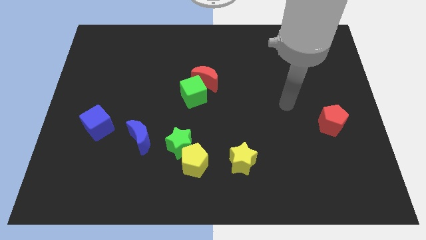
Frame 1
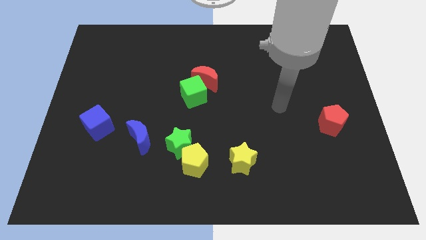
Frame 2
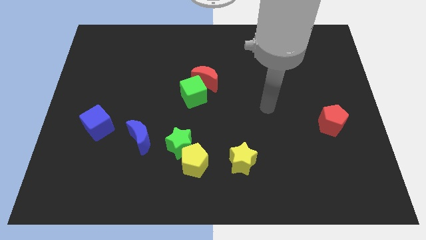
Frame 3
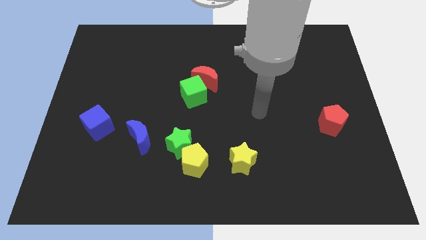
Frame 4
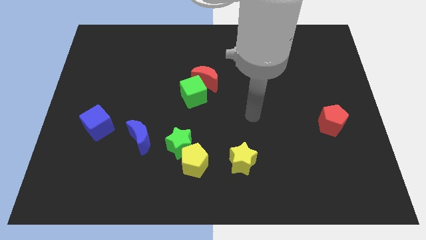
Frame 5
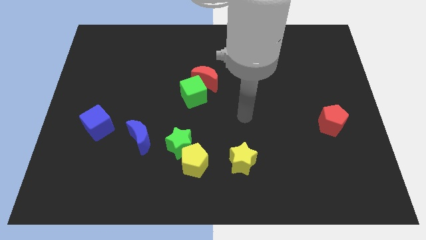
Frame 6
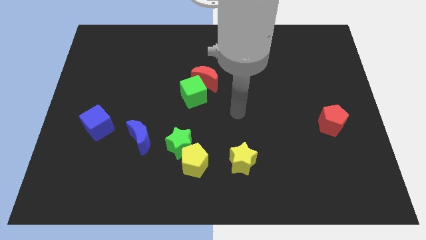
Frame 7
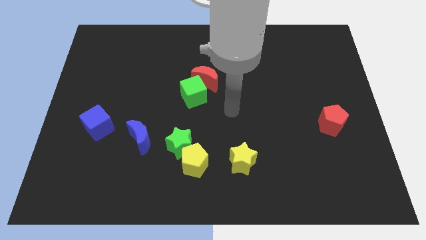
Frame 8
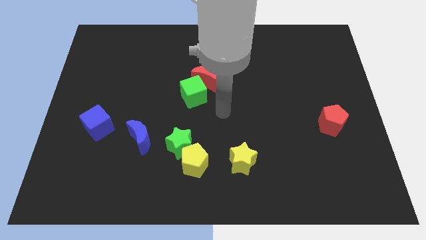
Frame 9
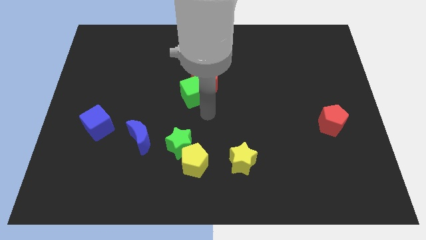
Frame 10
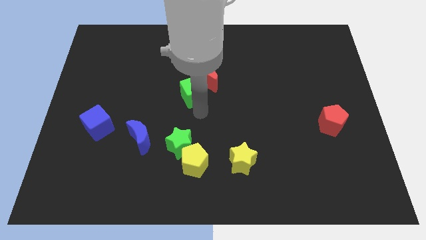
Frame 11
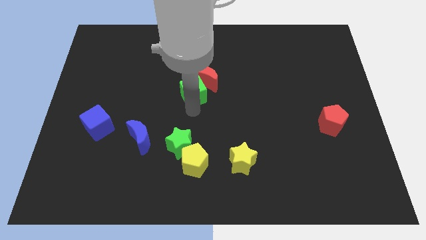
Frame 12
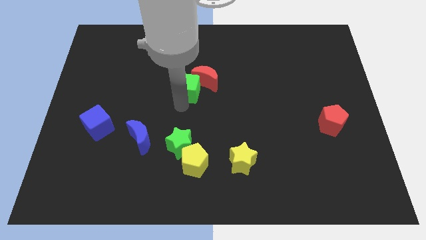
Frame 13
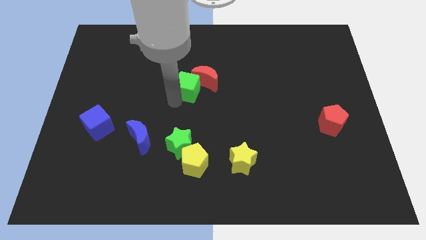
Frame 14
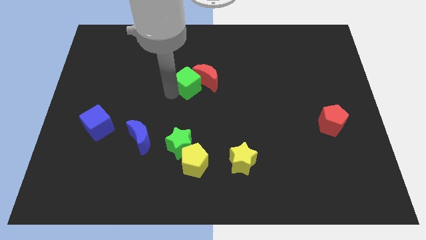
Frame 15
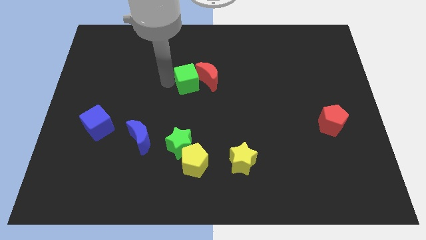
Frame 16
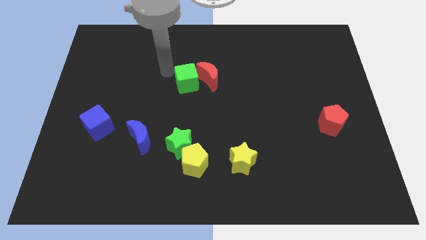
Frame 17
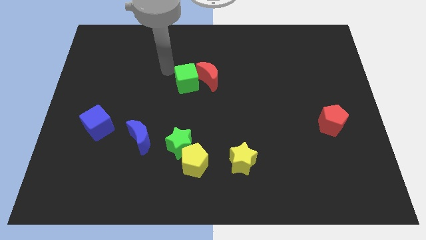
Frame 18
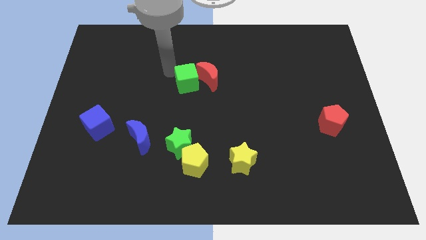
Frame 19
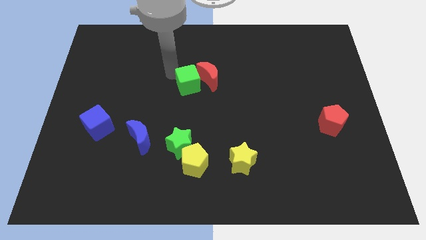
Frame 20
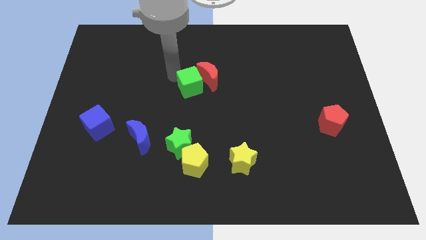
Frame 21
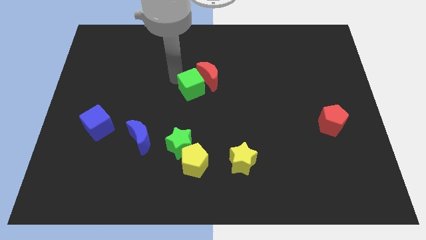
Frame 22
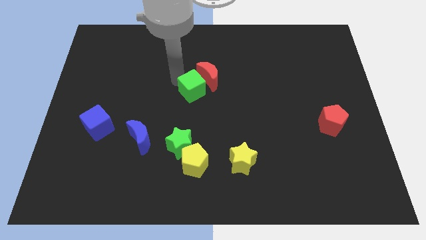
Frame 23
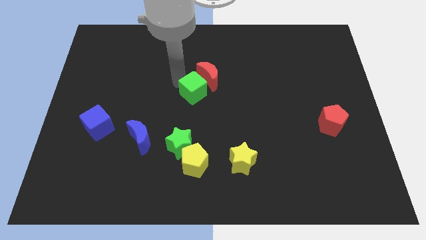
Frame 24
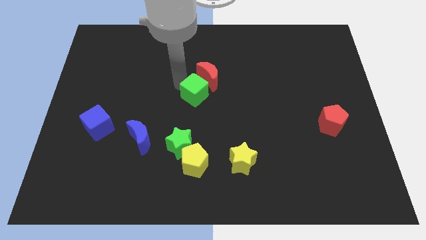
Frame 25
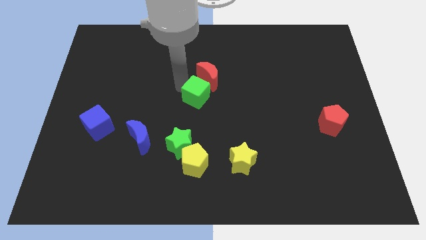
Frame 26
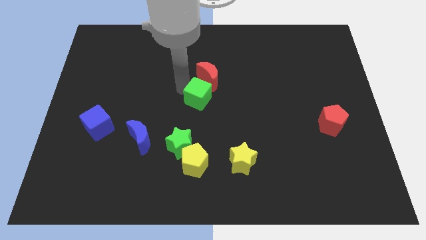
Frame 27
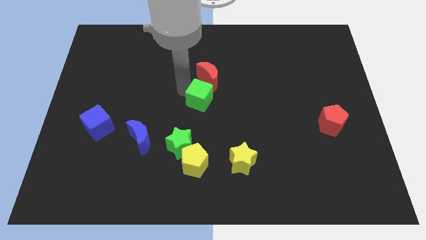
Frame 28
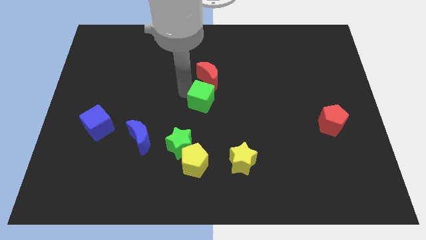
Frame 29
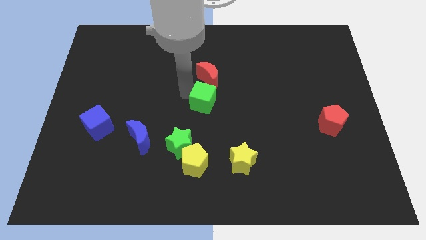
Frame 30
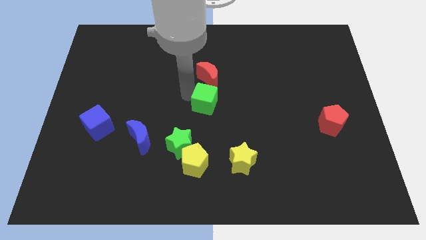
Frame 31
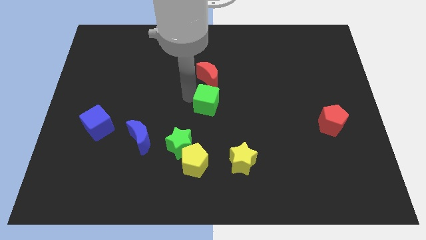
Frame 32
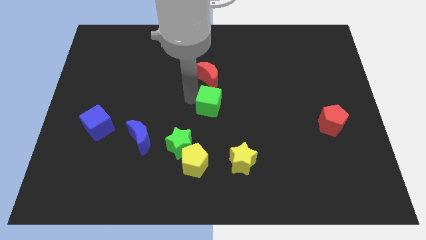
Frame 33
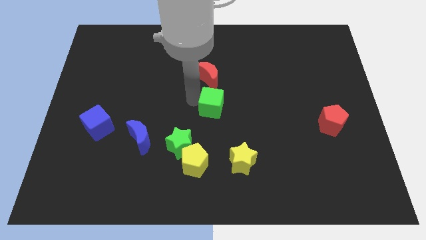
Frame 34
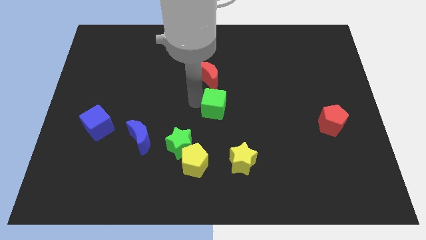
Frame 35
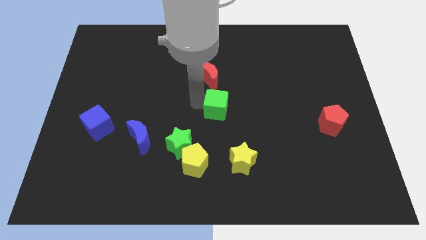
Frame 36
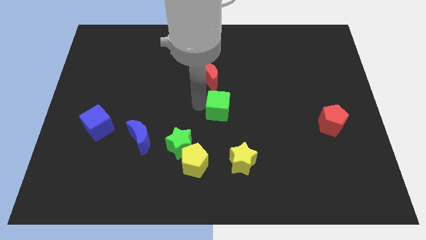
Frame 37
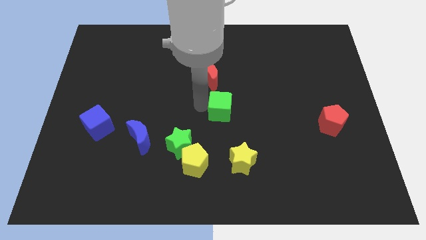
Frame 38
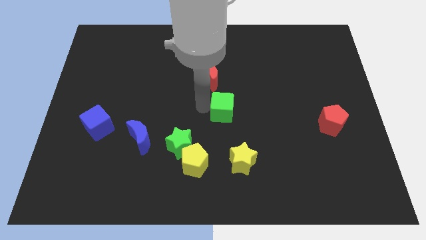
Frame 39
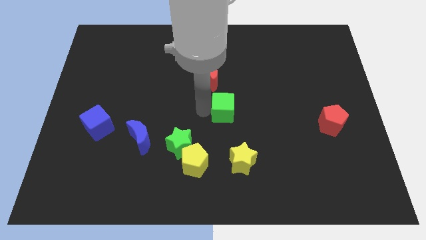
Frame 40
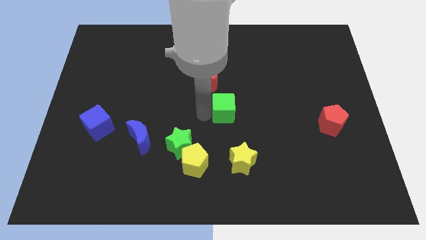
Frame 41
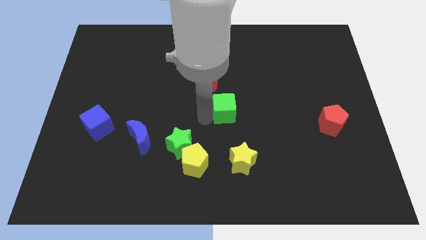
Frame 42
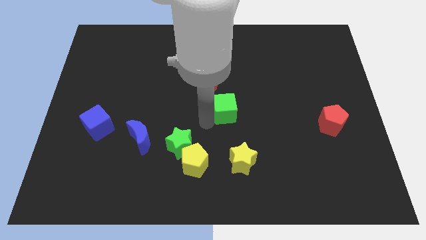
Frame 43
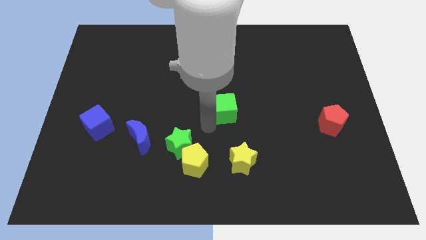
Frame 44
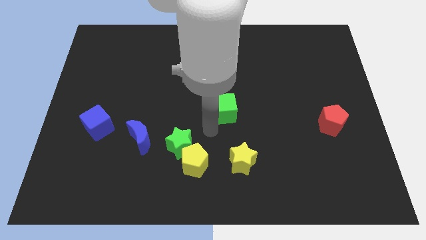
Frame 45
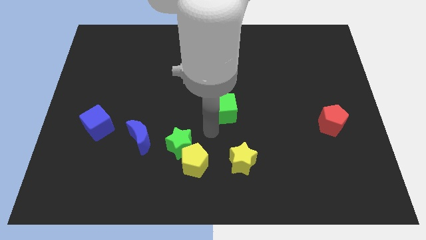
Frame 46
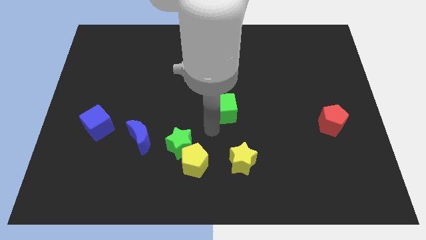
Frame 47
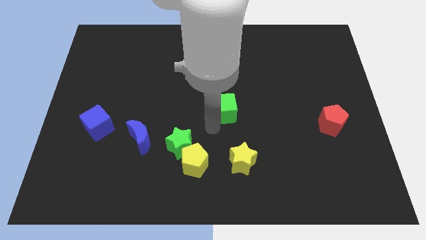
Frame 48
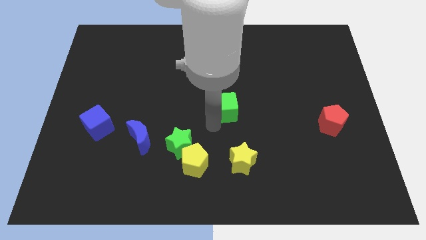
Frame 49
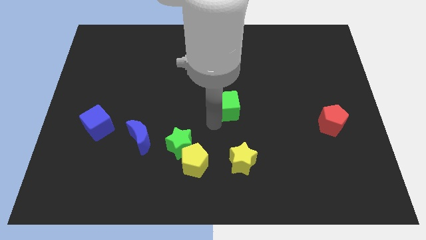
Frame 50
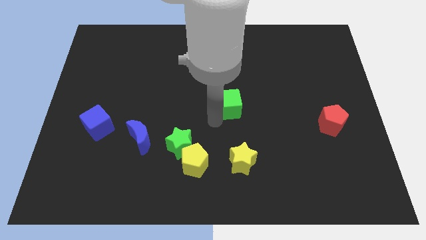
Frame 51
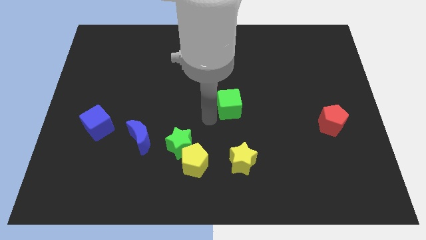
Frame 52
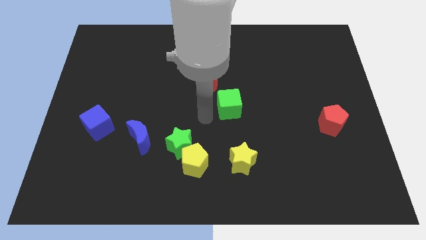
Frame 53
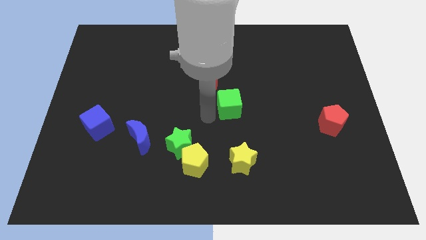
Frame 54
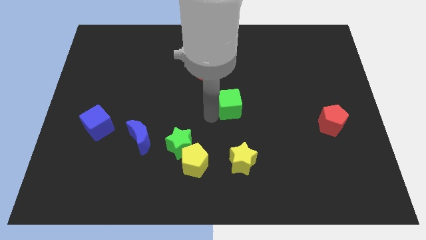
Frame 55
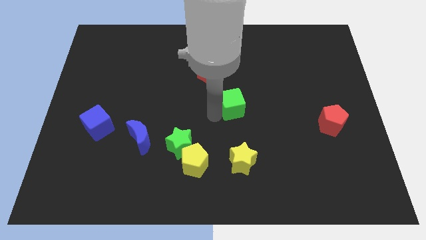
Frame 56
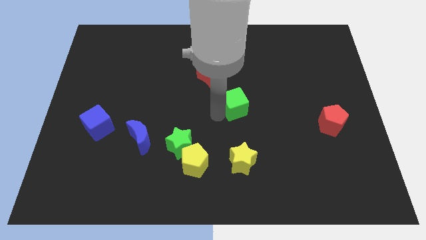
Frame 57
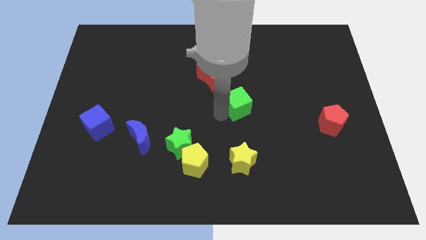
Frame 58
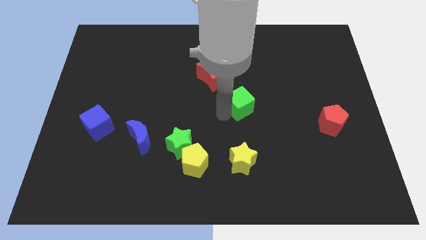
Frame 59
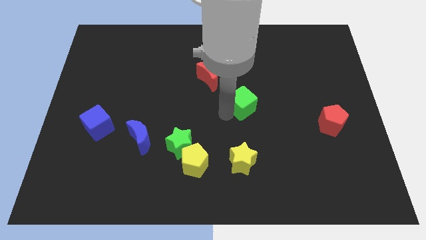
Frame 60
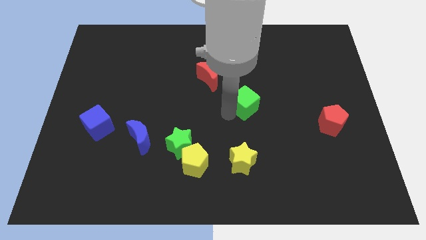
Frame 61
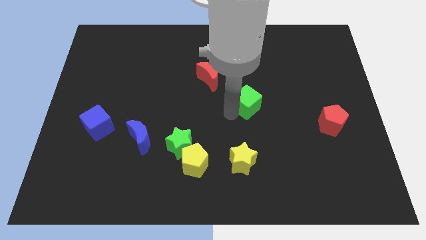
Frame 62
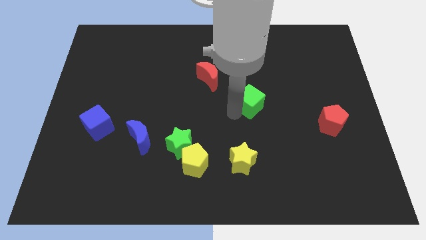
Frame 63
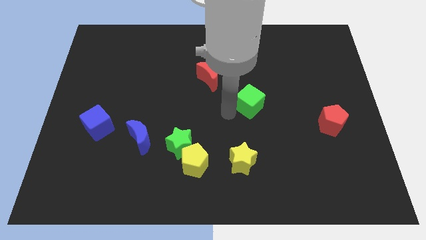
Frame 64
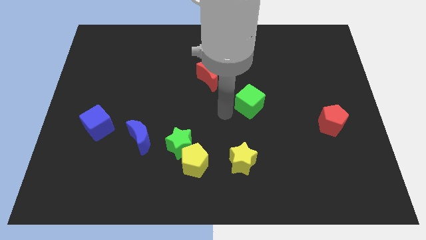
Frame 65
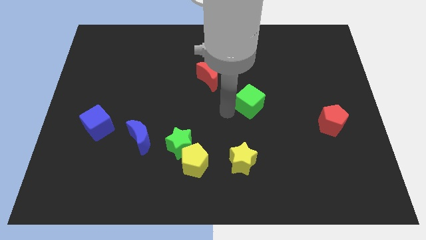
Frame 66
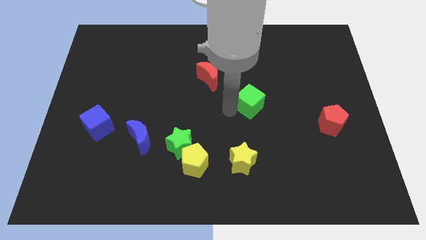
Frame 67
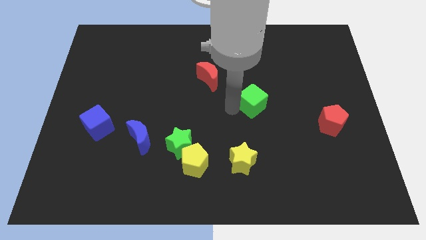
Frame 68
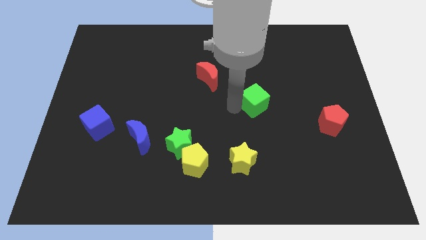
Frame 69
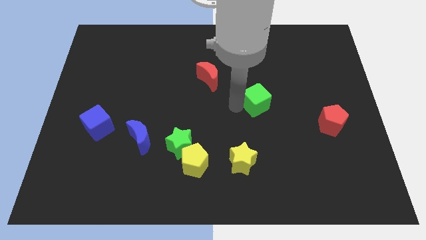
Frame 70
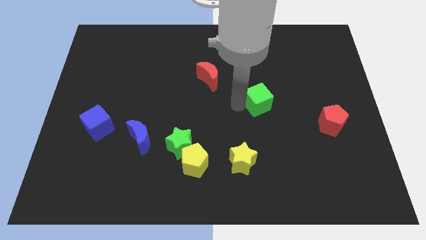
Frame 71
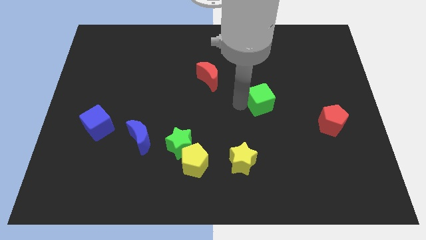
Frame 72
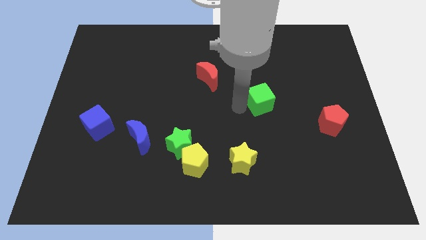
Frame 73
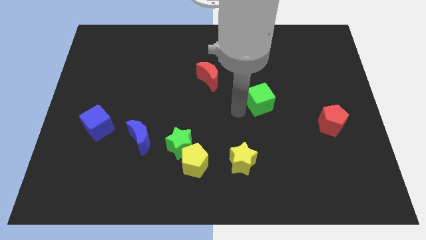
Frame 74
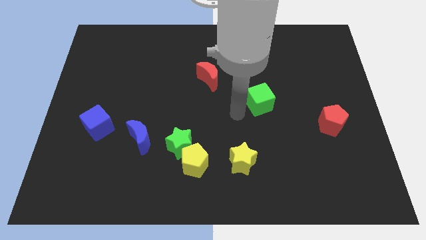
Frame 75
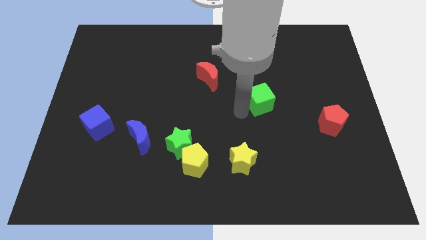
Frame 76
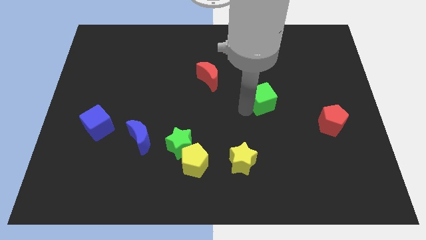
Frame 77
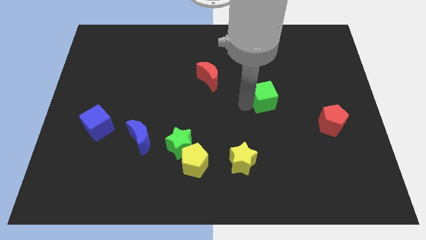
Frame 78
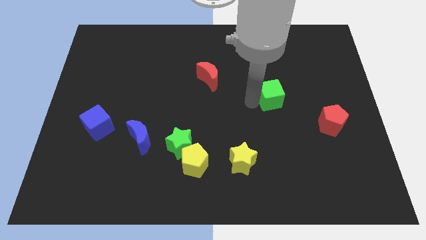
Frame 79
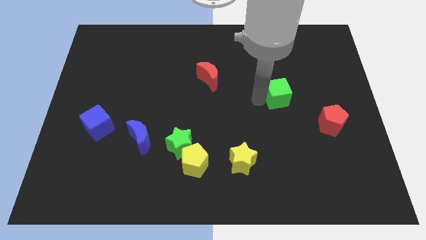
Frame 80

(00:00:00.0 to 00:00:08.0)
slide the green cube to the right
